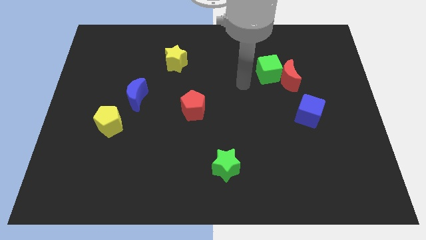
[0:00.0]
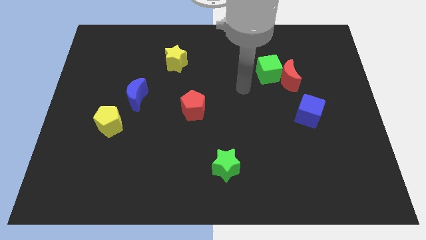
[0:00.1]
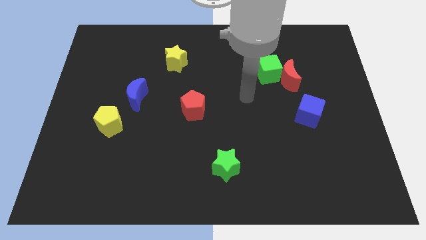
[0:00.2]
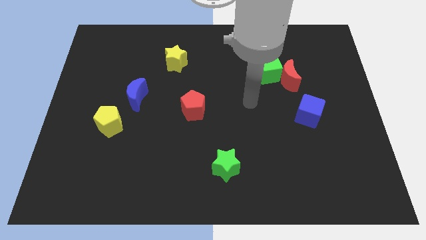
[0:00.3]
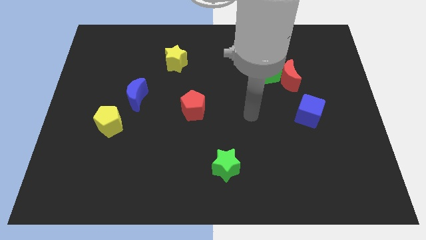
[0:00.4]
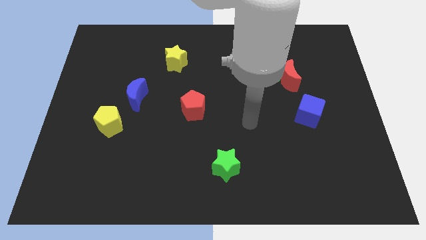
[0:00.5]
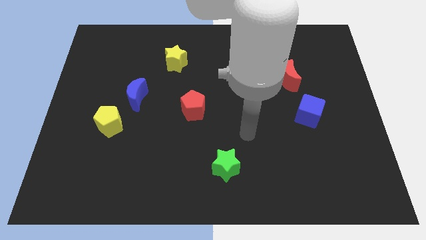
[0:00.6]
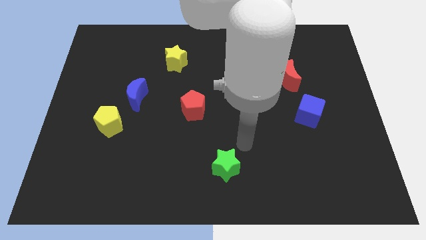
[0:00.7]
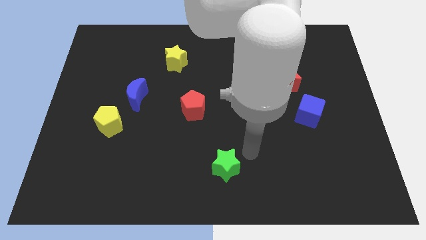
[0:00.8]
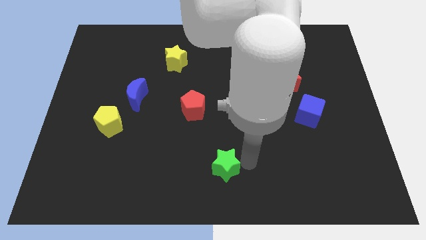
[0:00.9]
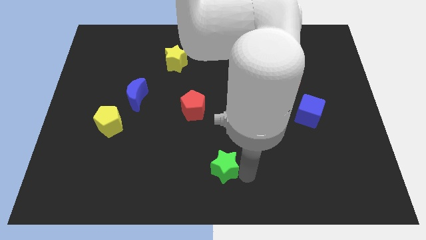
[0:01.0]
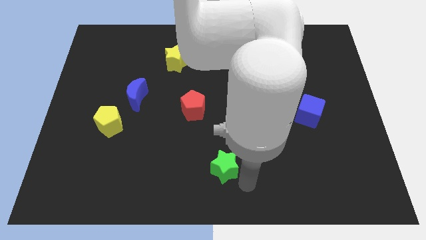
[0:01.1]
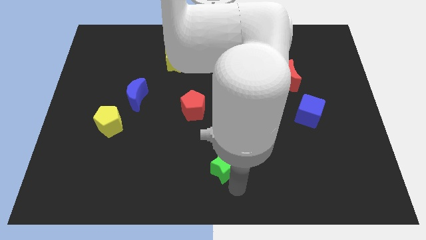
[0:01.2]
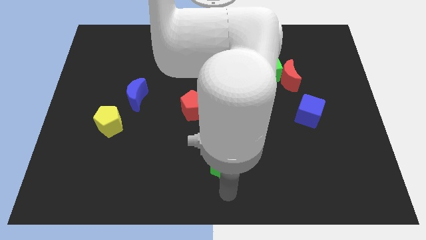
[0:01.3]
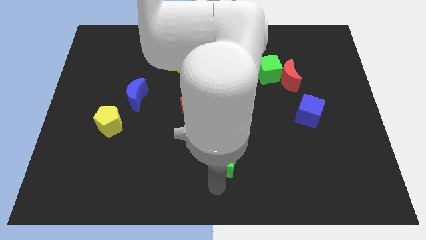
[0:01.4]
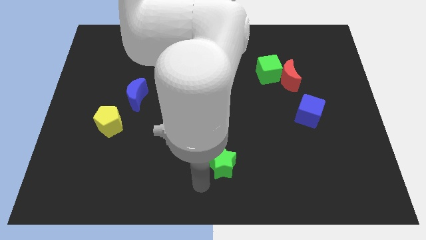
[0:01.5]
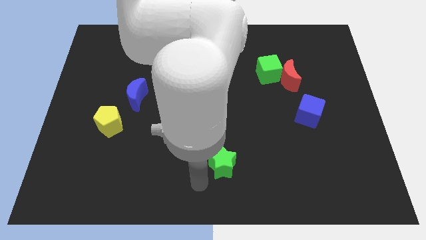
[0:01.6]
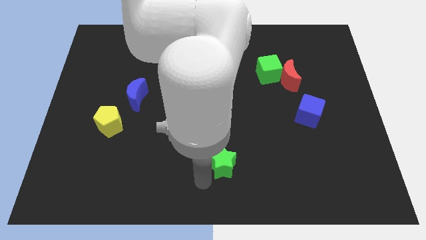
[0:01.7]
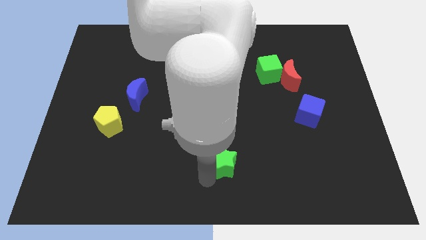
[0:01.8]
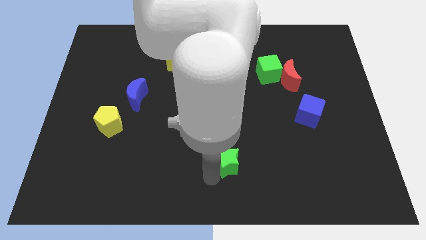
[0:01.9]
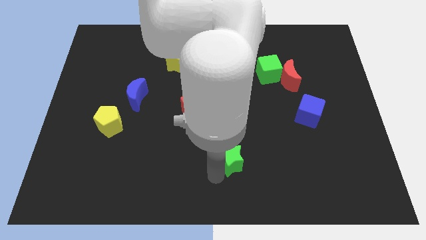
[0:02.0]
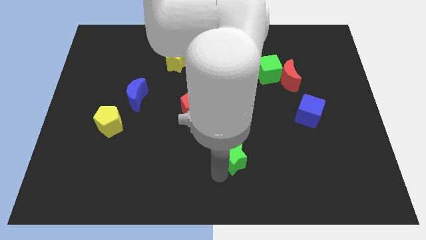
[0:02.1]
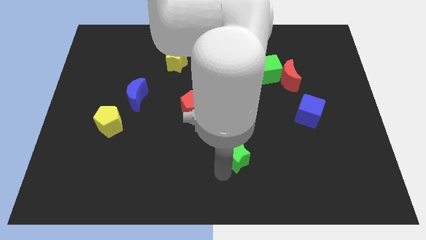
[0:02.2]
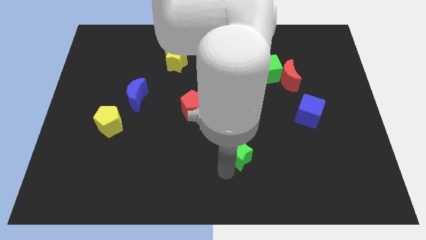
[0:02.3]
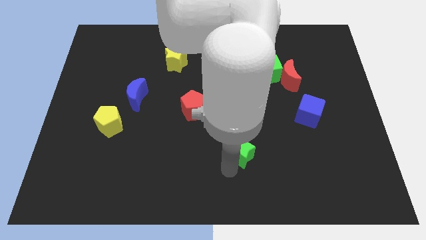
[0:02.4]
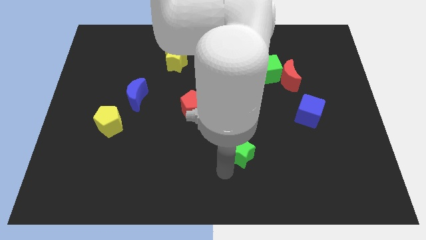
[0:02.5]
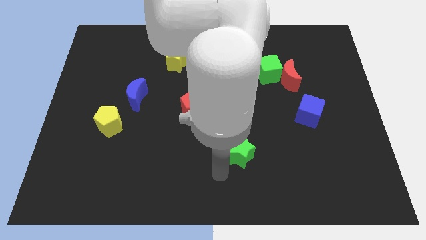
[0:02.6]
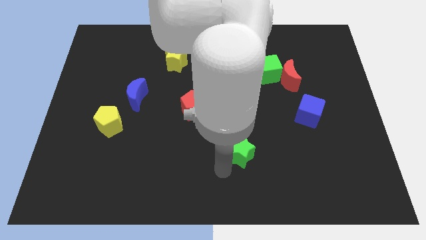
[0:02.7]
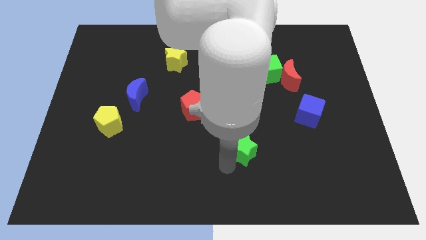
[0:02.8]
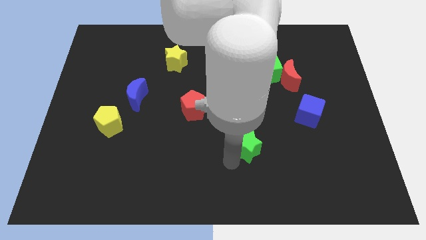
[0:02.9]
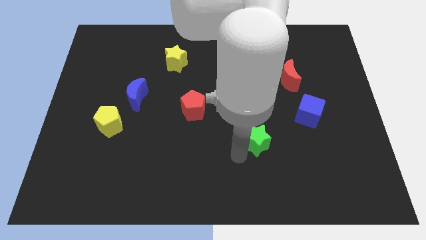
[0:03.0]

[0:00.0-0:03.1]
move the green star diagonally up and right somewhat

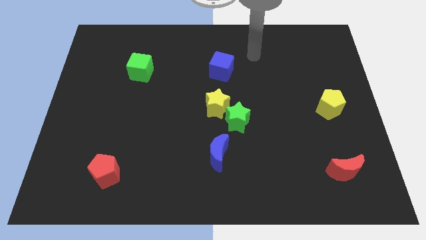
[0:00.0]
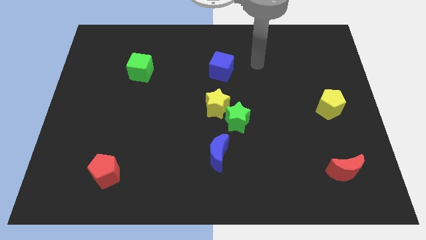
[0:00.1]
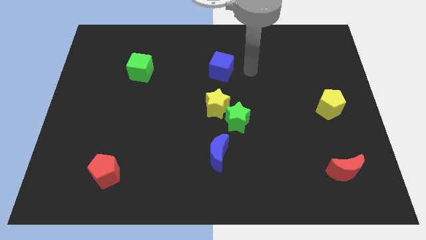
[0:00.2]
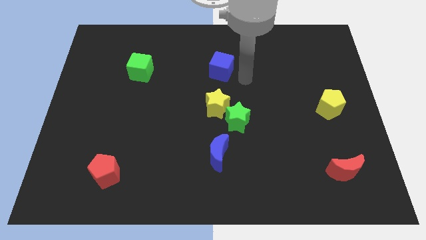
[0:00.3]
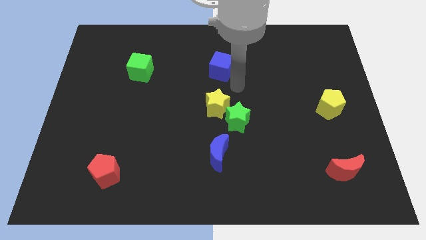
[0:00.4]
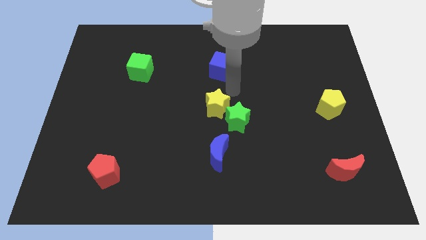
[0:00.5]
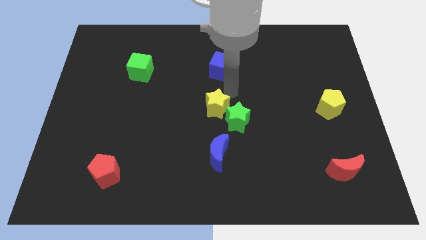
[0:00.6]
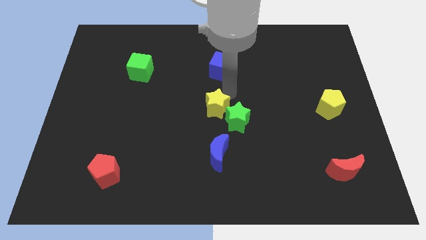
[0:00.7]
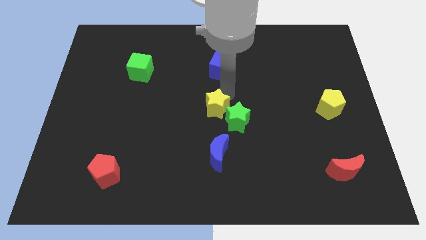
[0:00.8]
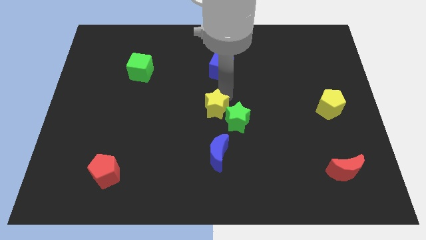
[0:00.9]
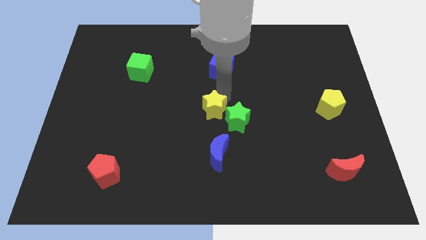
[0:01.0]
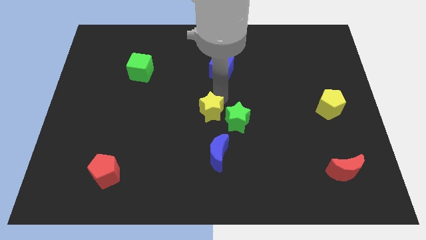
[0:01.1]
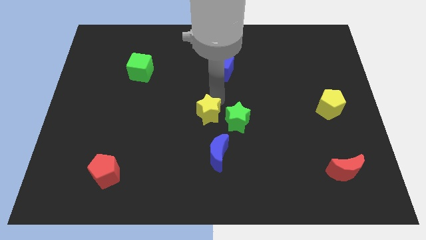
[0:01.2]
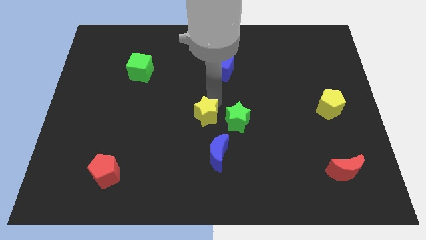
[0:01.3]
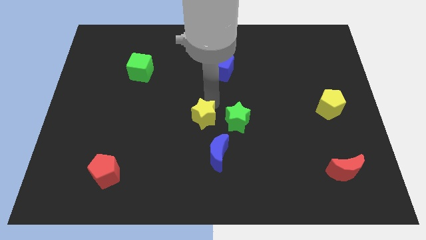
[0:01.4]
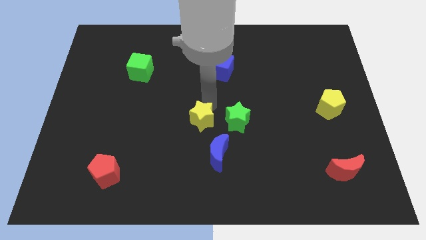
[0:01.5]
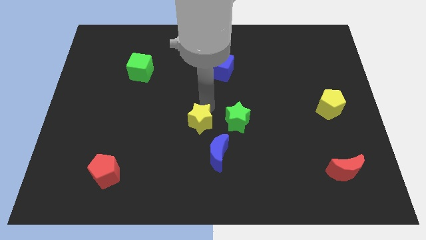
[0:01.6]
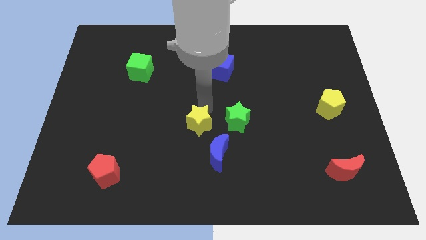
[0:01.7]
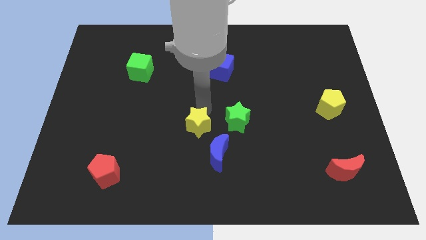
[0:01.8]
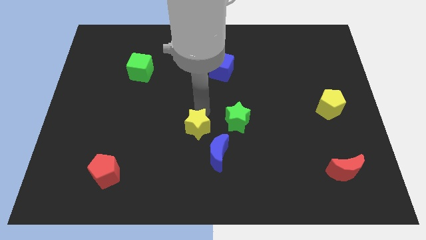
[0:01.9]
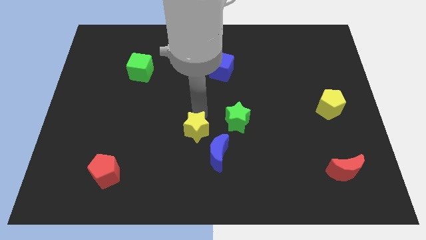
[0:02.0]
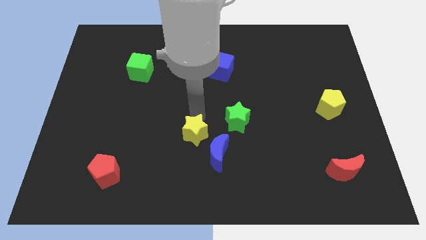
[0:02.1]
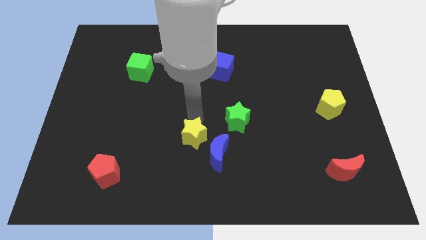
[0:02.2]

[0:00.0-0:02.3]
push the yellow star downwards slightly

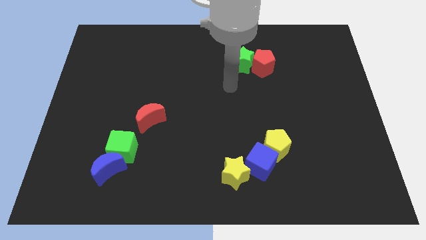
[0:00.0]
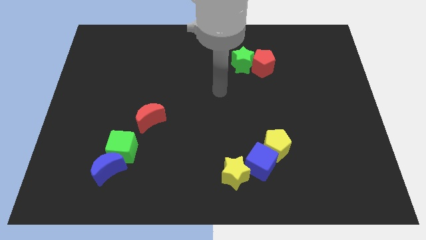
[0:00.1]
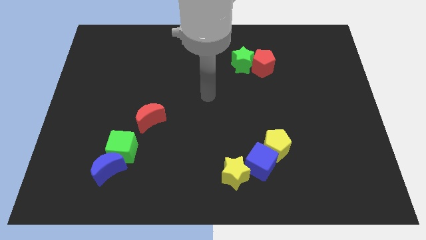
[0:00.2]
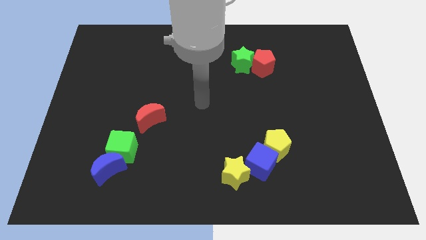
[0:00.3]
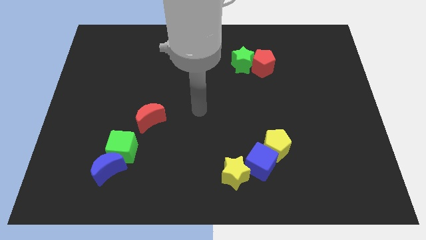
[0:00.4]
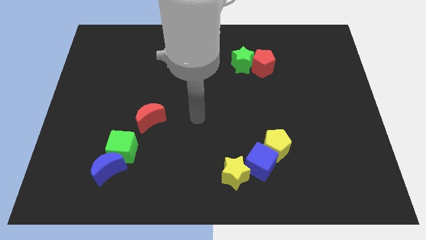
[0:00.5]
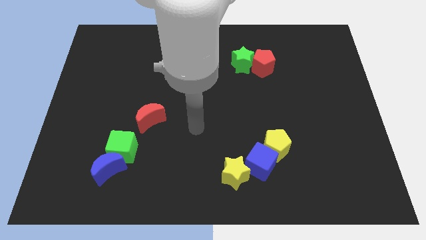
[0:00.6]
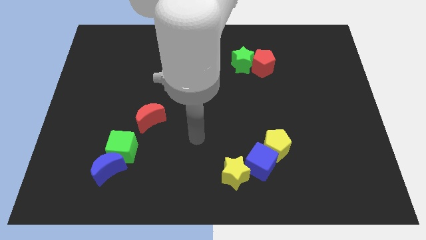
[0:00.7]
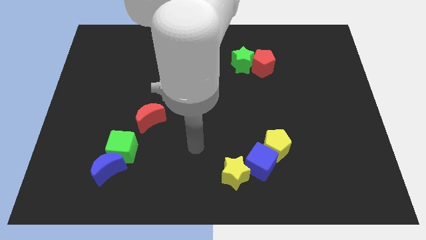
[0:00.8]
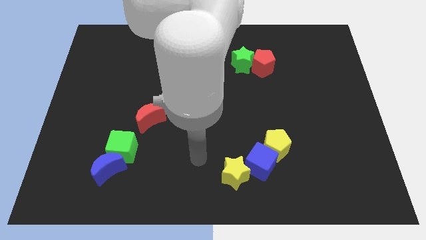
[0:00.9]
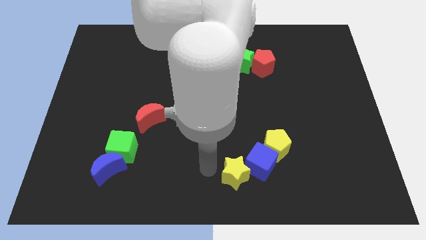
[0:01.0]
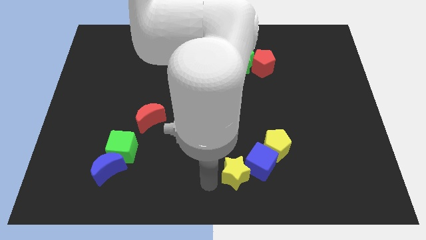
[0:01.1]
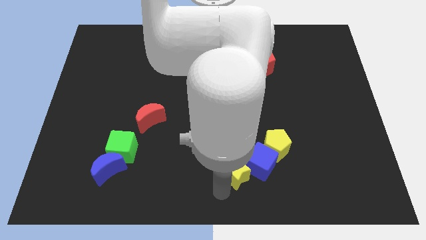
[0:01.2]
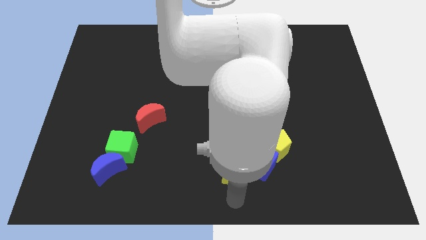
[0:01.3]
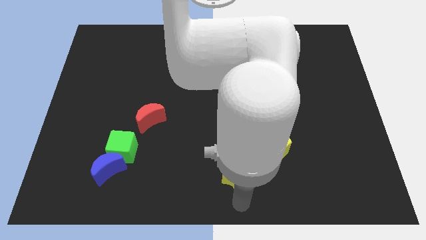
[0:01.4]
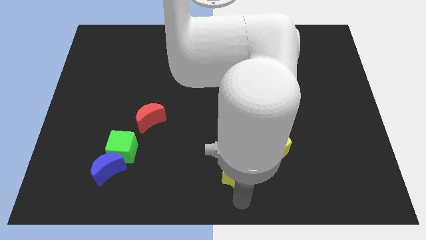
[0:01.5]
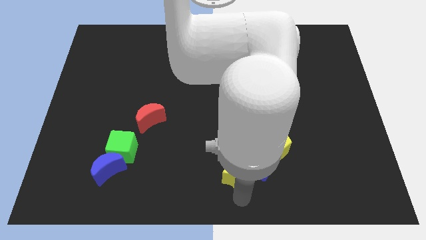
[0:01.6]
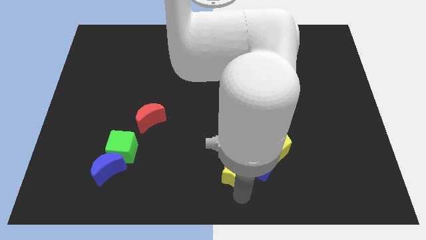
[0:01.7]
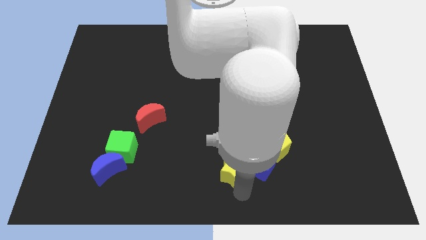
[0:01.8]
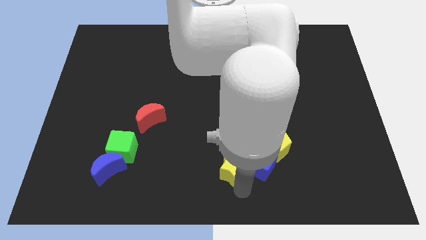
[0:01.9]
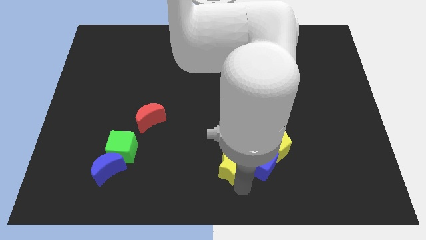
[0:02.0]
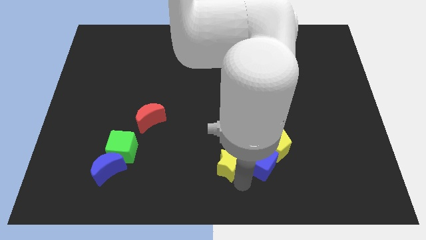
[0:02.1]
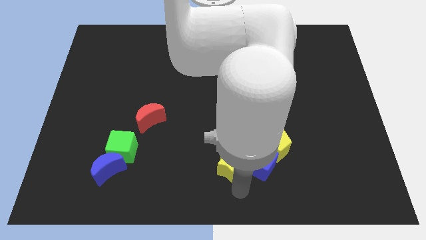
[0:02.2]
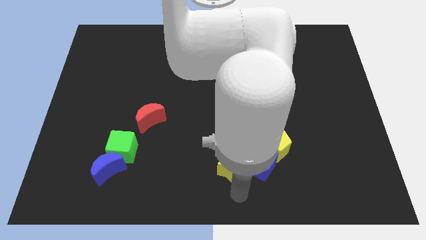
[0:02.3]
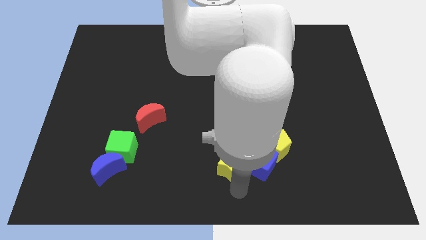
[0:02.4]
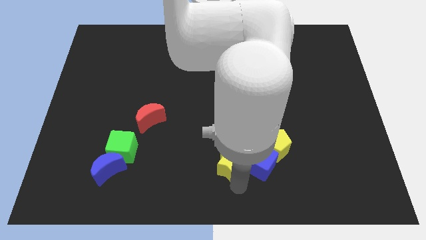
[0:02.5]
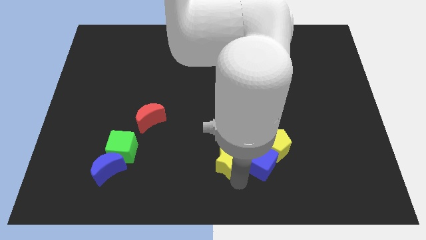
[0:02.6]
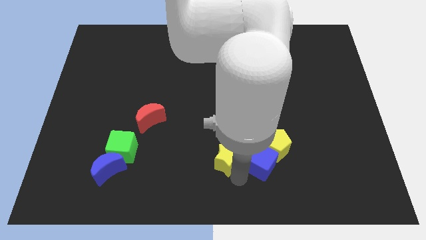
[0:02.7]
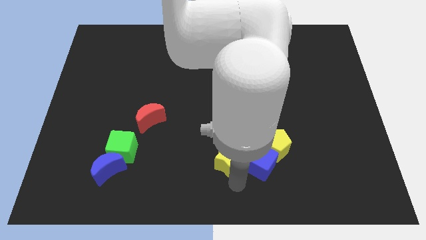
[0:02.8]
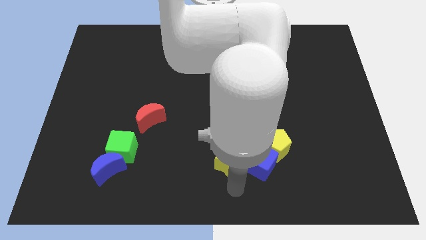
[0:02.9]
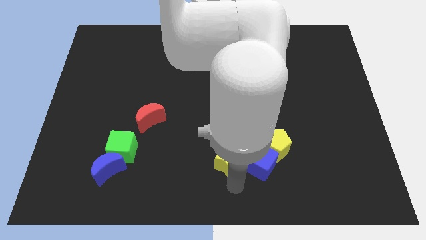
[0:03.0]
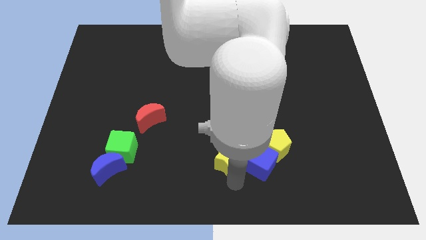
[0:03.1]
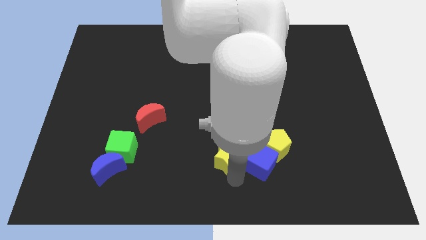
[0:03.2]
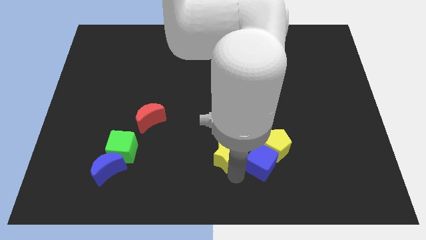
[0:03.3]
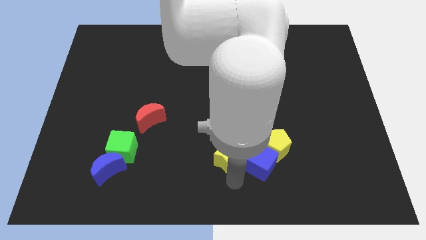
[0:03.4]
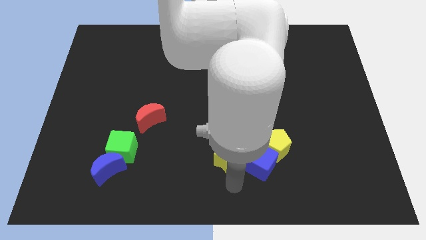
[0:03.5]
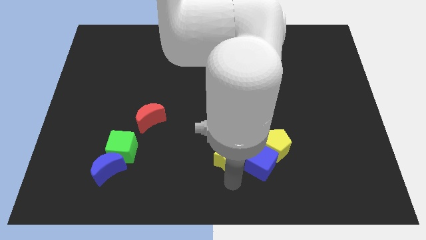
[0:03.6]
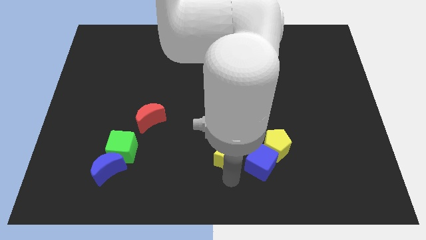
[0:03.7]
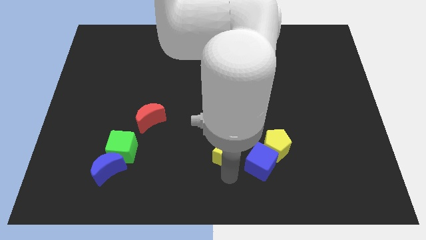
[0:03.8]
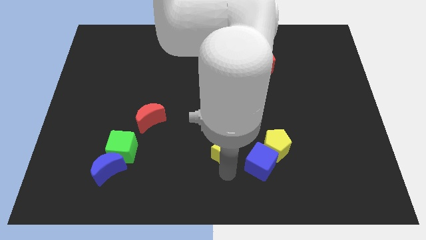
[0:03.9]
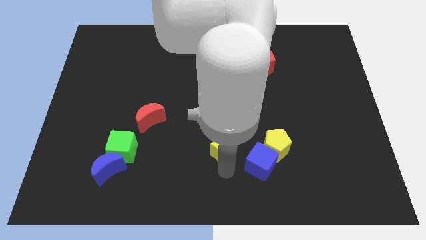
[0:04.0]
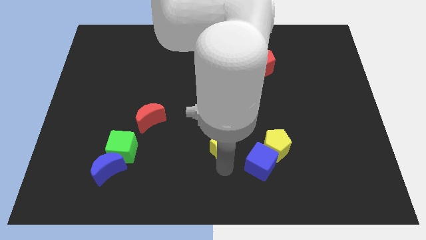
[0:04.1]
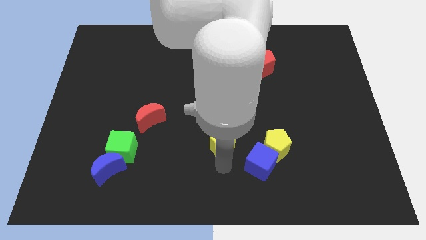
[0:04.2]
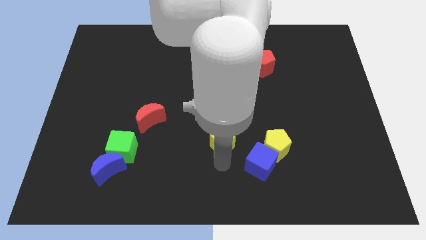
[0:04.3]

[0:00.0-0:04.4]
move the yellow star slightly upwards
